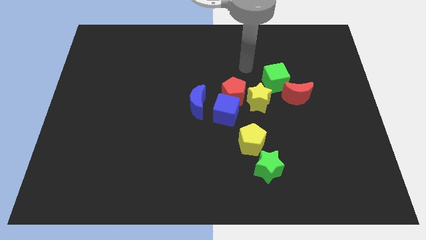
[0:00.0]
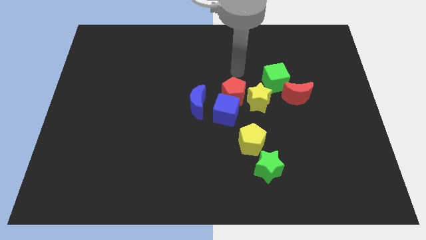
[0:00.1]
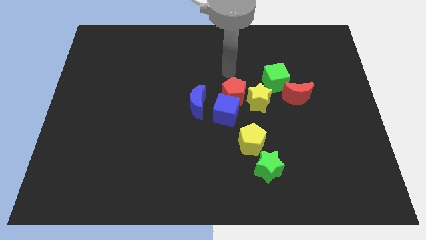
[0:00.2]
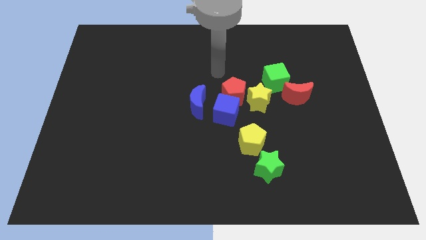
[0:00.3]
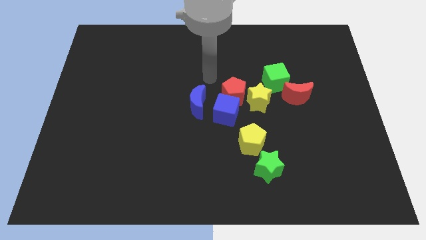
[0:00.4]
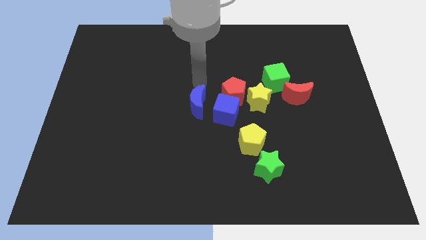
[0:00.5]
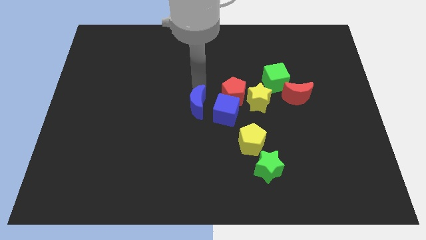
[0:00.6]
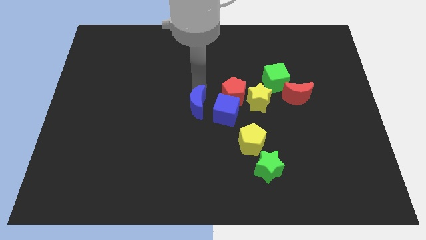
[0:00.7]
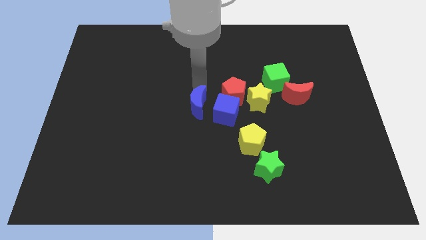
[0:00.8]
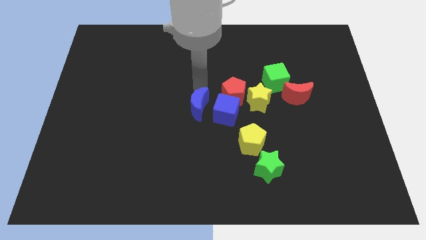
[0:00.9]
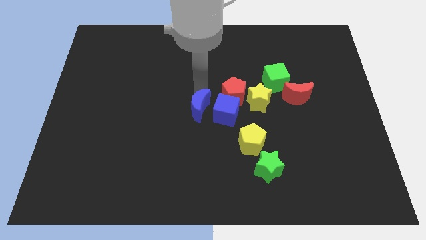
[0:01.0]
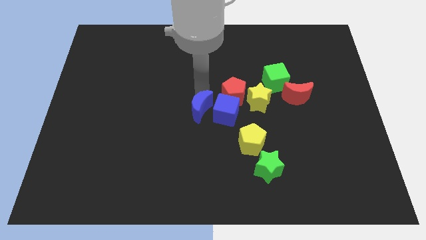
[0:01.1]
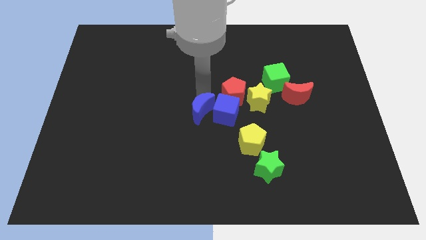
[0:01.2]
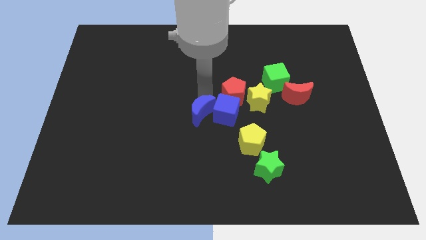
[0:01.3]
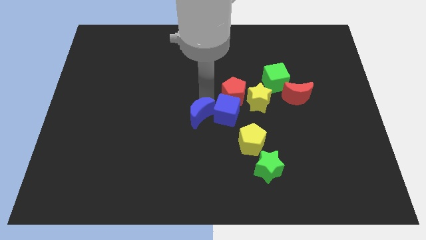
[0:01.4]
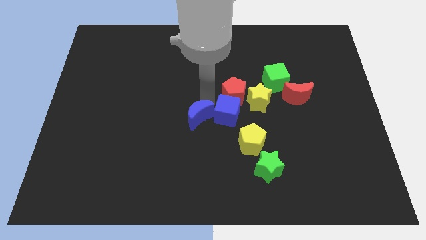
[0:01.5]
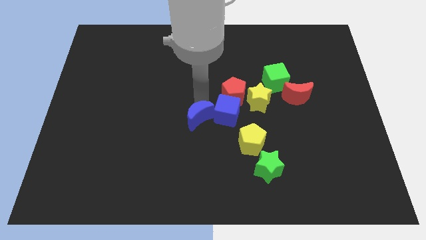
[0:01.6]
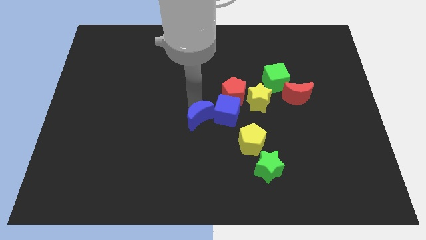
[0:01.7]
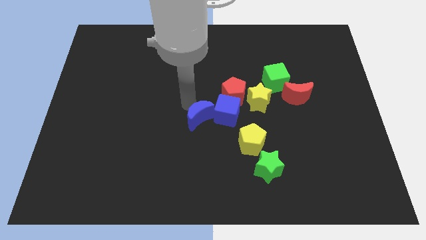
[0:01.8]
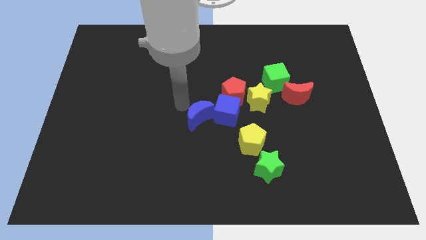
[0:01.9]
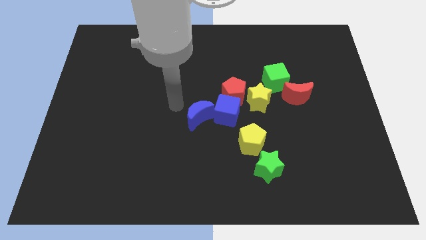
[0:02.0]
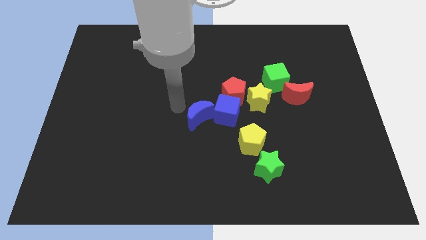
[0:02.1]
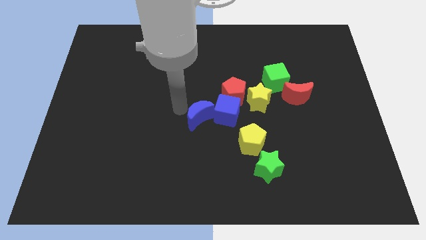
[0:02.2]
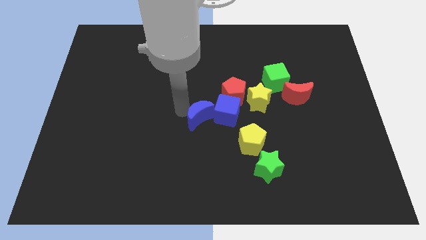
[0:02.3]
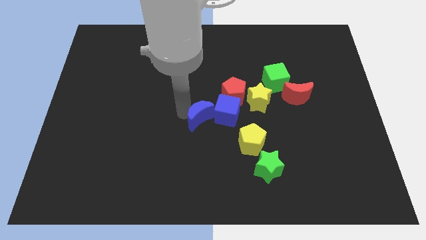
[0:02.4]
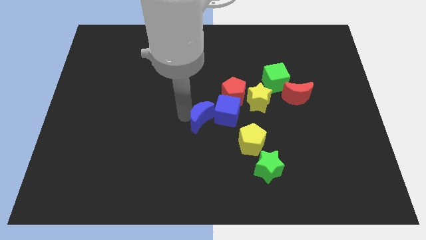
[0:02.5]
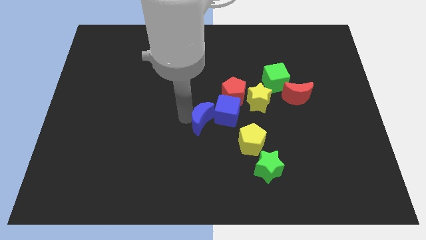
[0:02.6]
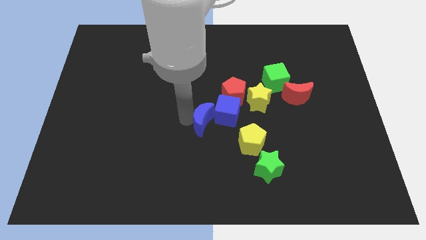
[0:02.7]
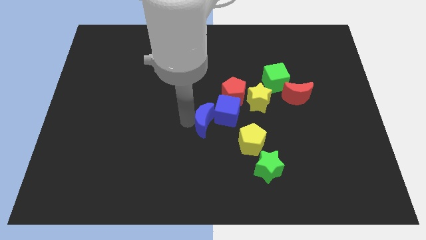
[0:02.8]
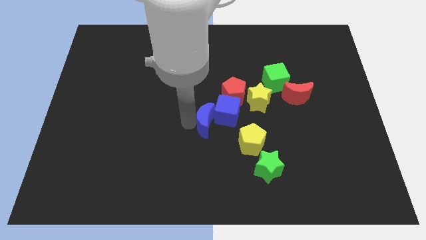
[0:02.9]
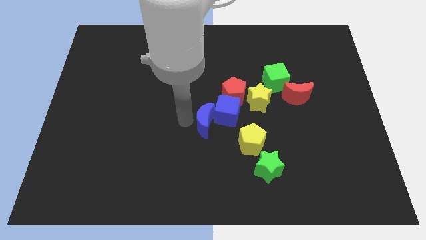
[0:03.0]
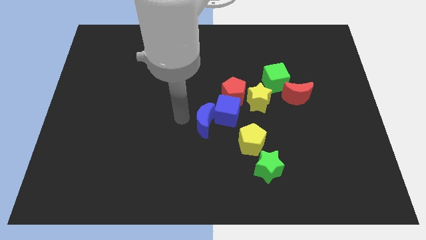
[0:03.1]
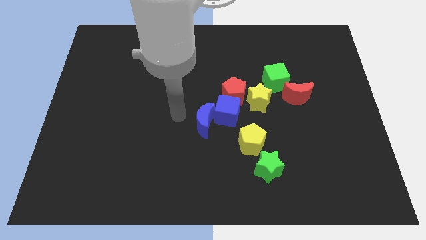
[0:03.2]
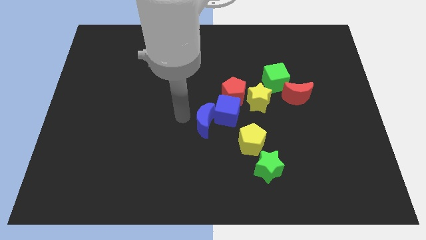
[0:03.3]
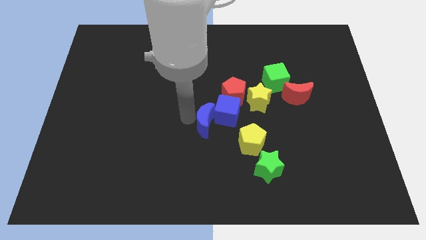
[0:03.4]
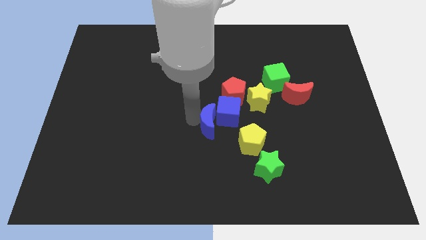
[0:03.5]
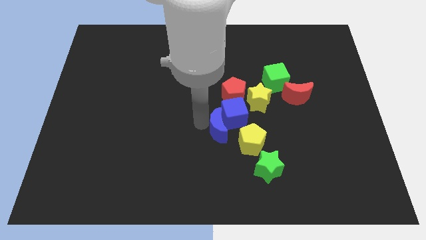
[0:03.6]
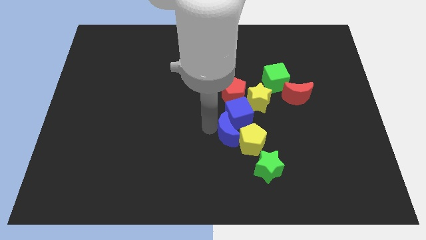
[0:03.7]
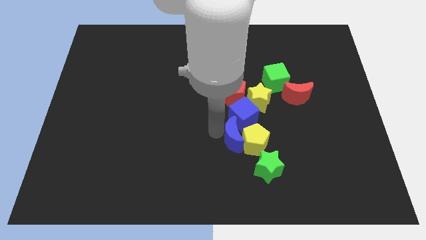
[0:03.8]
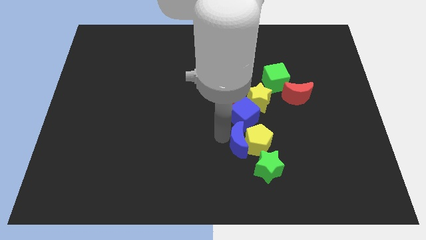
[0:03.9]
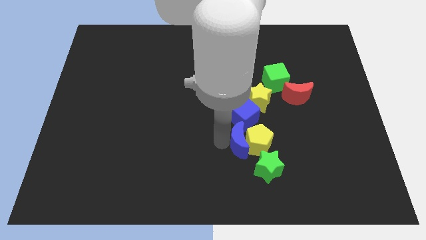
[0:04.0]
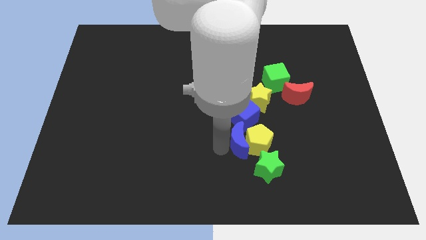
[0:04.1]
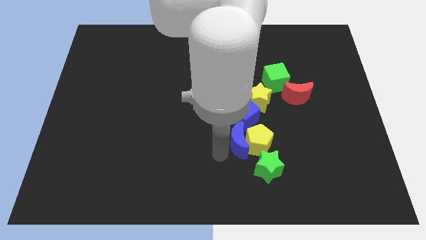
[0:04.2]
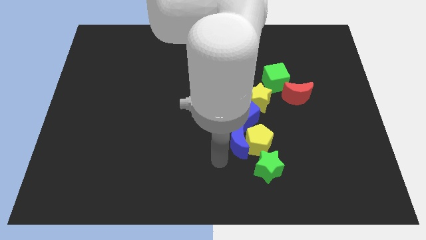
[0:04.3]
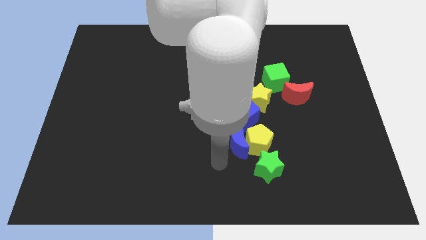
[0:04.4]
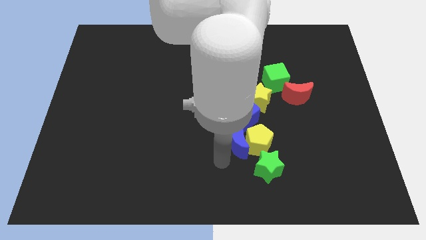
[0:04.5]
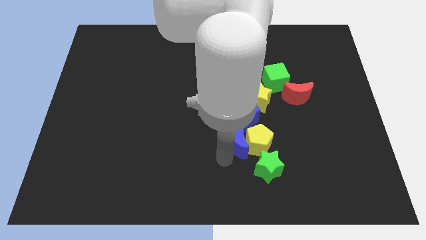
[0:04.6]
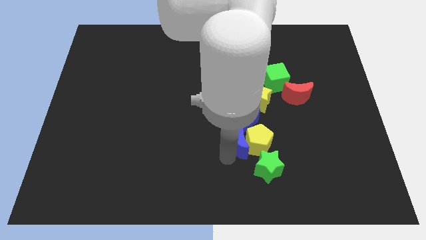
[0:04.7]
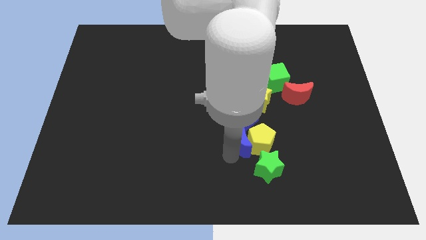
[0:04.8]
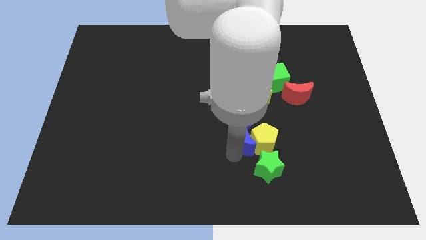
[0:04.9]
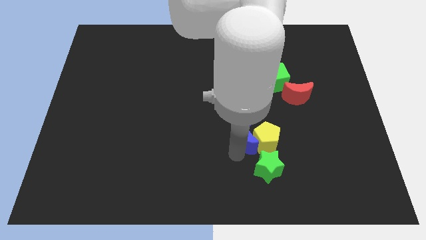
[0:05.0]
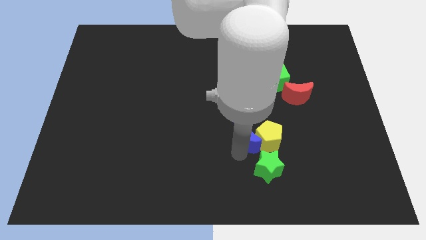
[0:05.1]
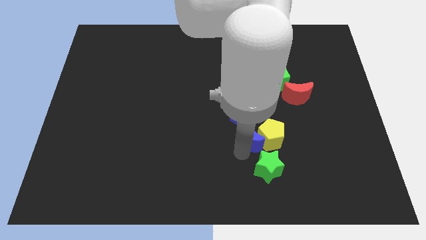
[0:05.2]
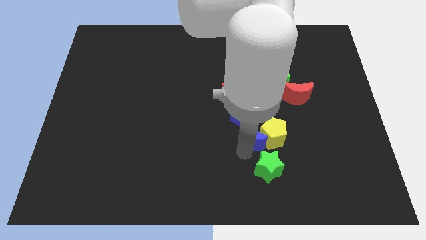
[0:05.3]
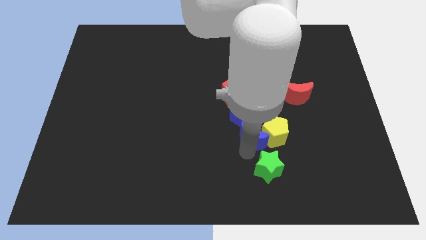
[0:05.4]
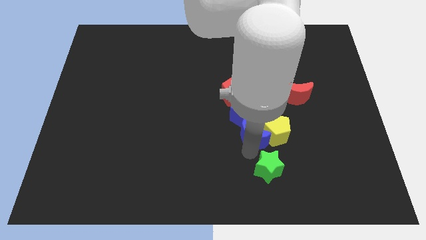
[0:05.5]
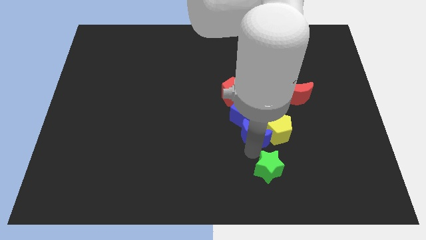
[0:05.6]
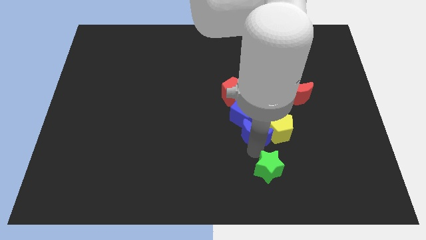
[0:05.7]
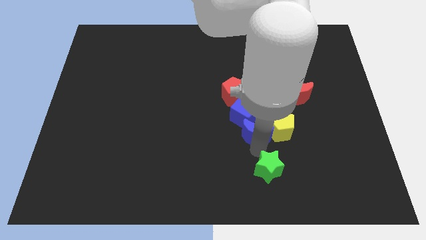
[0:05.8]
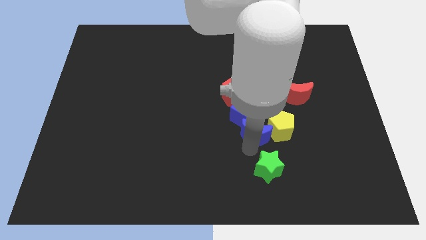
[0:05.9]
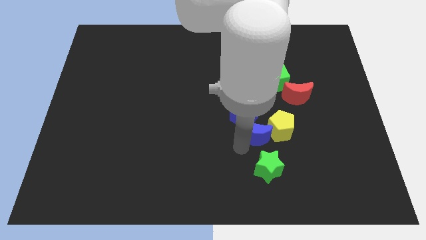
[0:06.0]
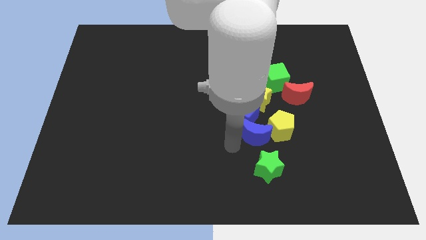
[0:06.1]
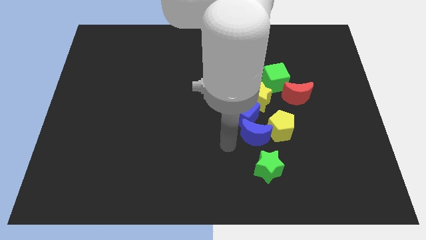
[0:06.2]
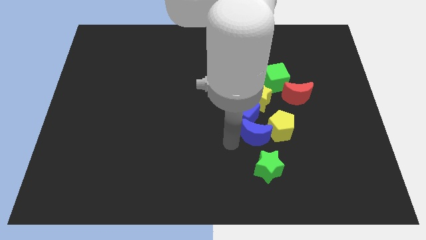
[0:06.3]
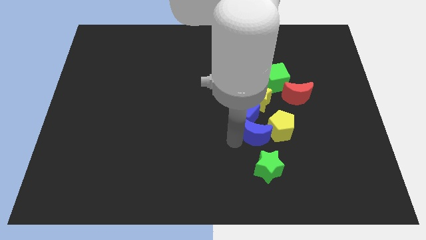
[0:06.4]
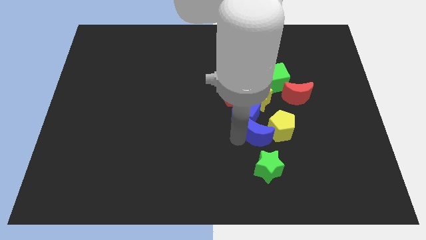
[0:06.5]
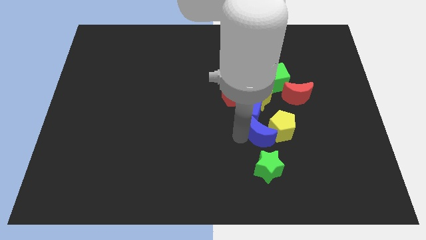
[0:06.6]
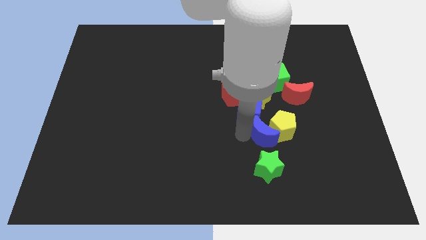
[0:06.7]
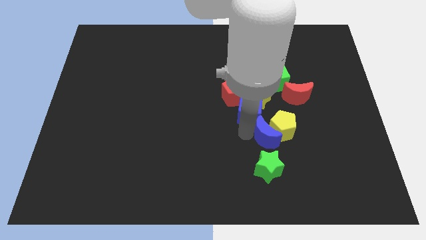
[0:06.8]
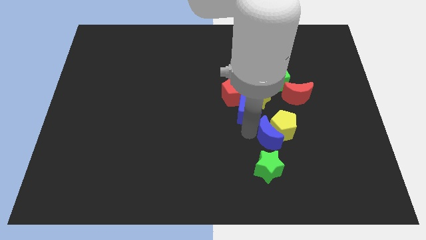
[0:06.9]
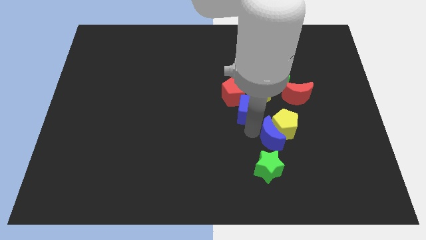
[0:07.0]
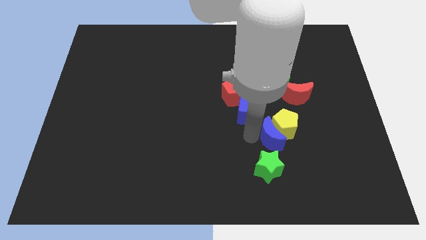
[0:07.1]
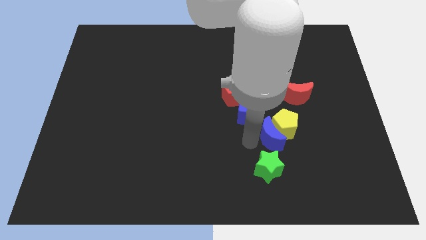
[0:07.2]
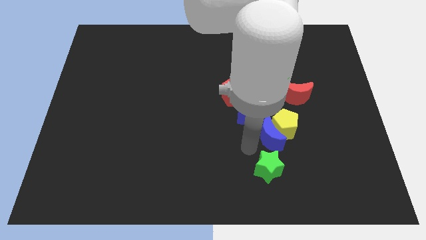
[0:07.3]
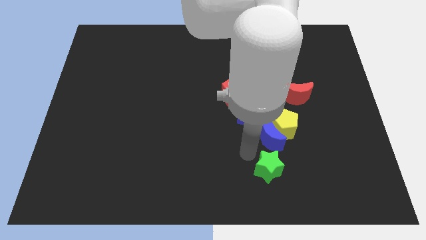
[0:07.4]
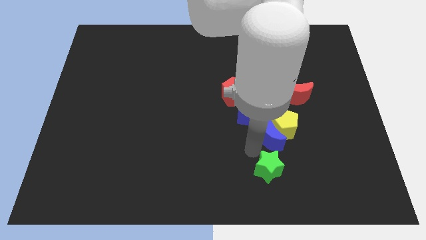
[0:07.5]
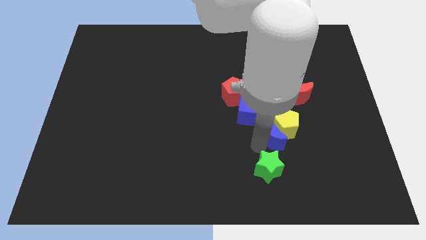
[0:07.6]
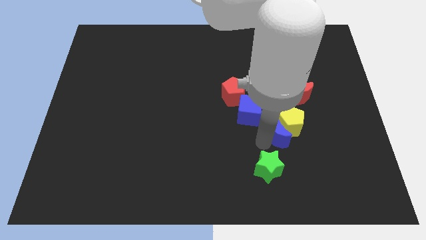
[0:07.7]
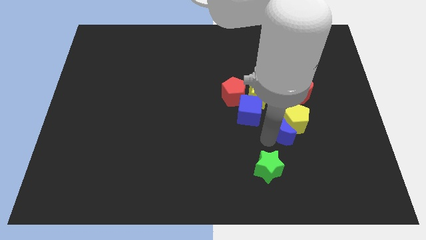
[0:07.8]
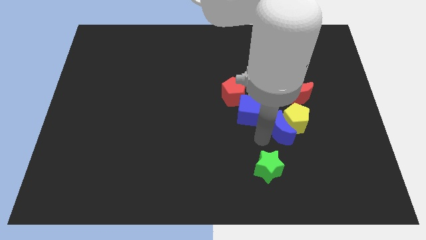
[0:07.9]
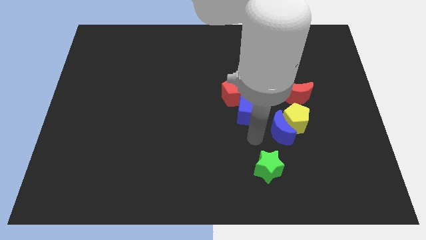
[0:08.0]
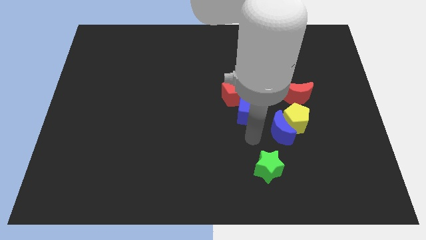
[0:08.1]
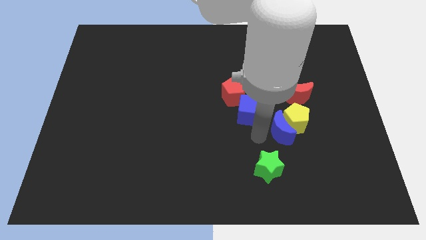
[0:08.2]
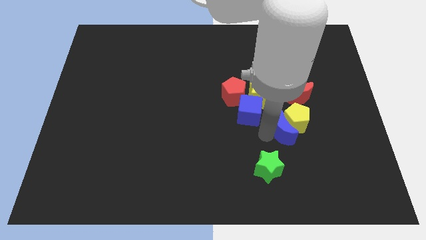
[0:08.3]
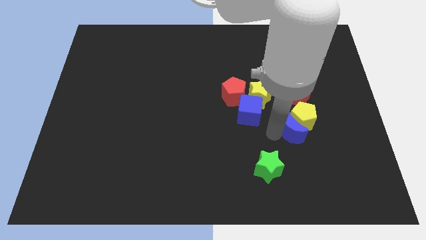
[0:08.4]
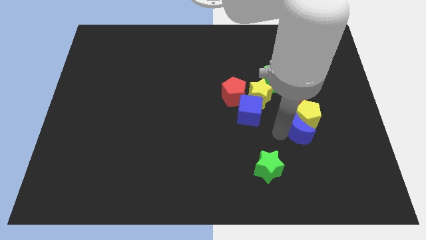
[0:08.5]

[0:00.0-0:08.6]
slide the blue moon right
